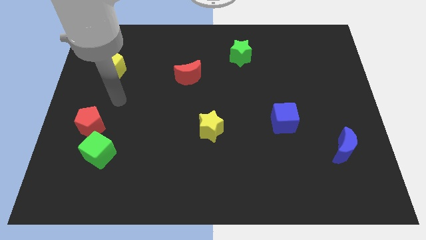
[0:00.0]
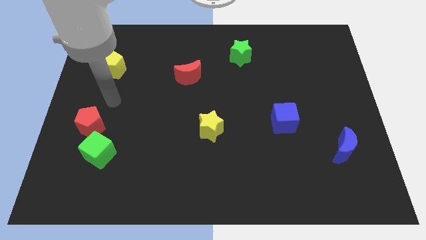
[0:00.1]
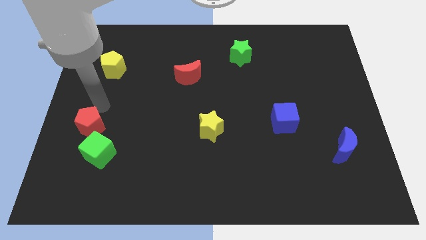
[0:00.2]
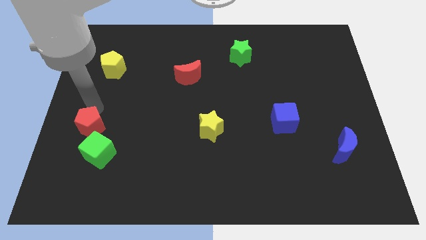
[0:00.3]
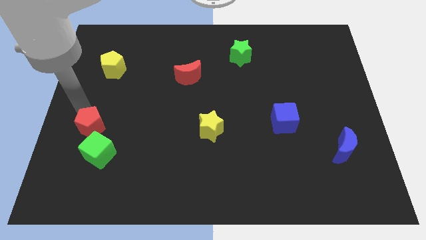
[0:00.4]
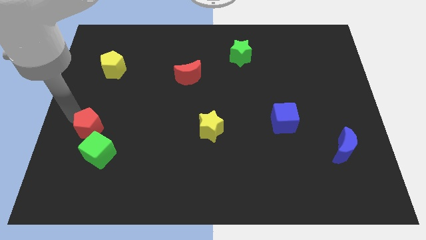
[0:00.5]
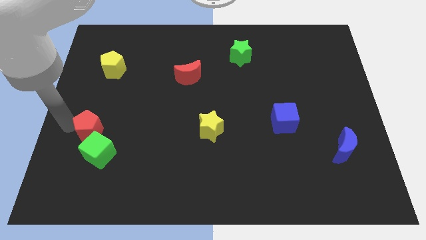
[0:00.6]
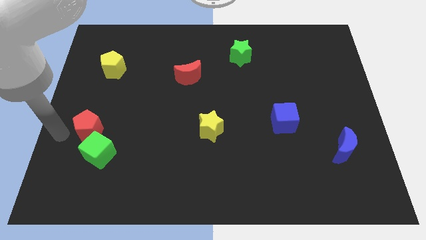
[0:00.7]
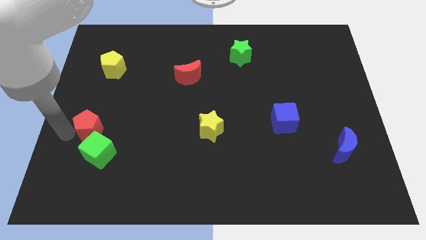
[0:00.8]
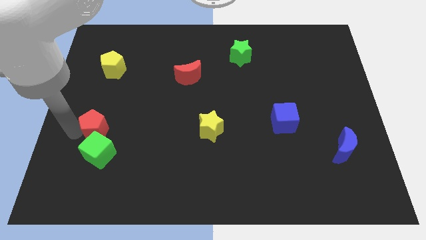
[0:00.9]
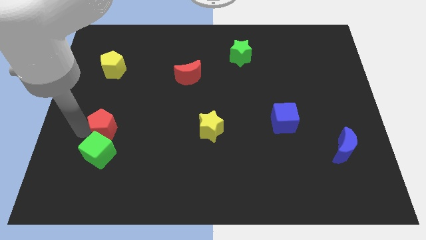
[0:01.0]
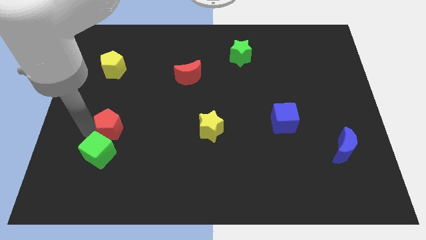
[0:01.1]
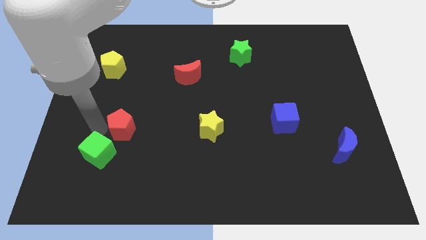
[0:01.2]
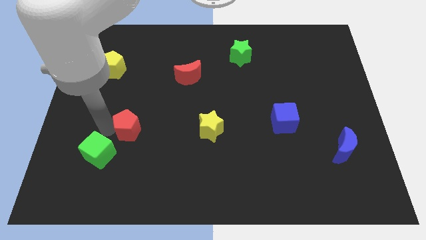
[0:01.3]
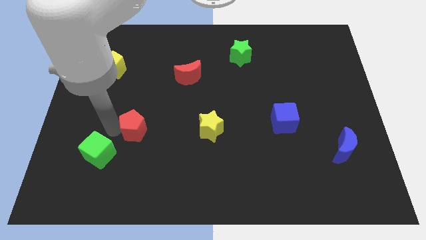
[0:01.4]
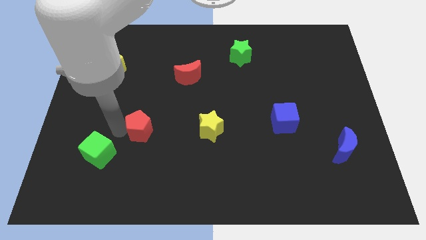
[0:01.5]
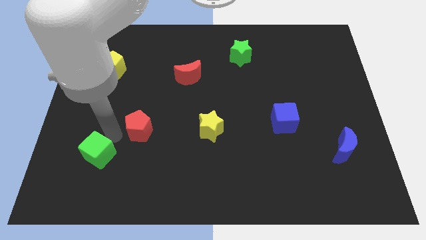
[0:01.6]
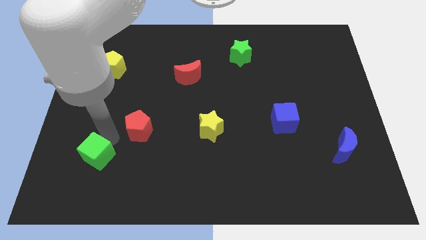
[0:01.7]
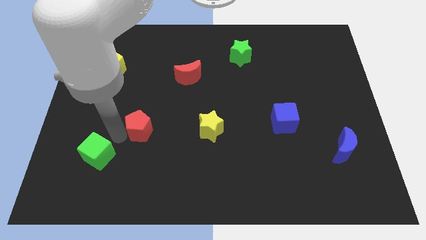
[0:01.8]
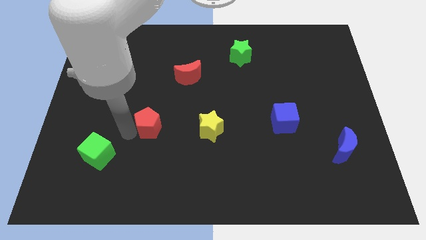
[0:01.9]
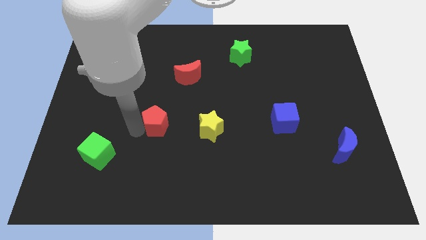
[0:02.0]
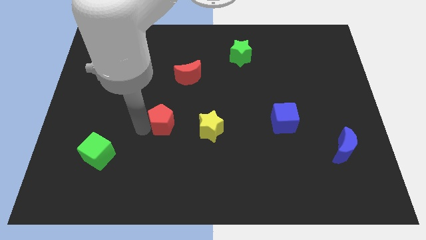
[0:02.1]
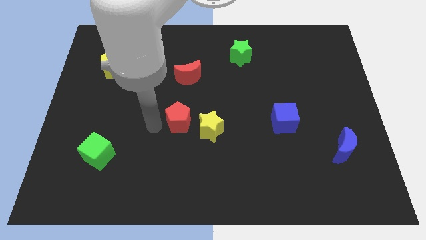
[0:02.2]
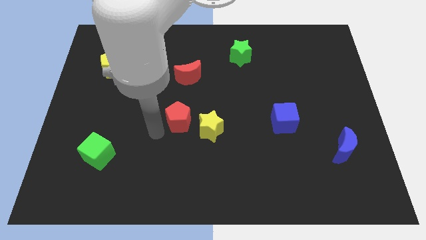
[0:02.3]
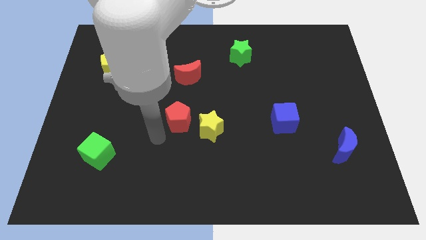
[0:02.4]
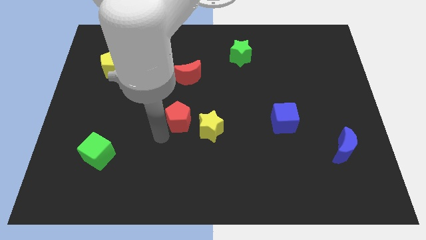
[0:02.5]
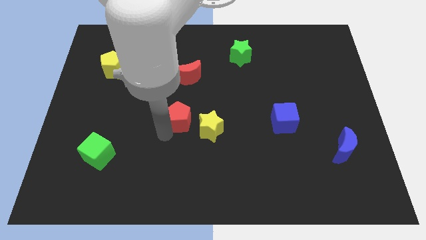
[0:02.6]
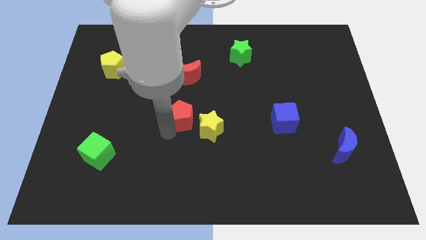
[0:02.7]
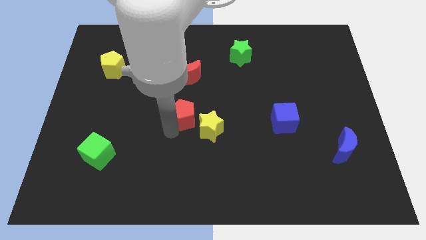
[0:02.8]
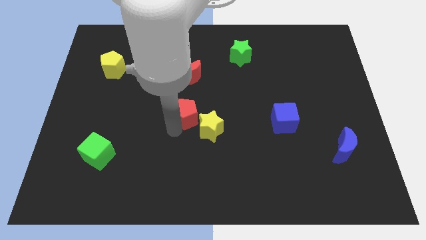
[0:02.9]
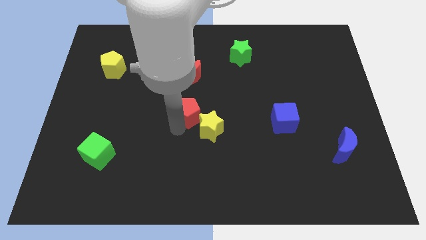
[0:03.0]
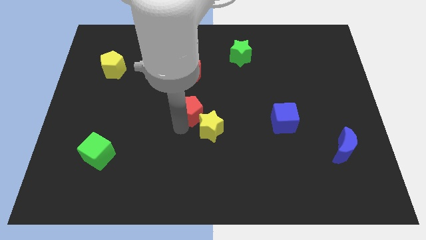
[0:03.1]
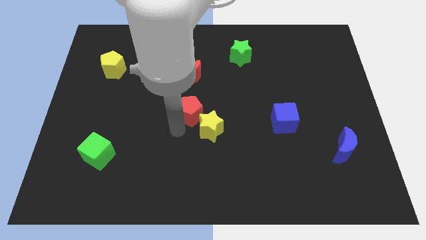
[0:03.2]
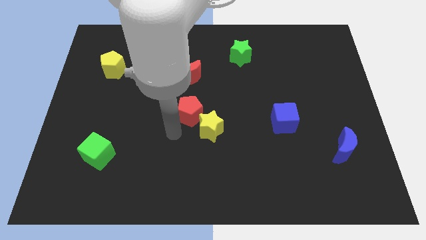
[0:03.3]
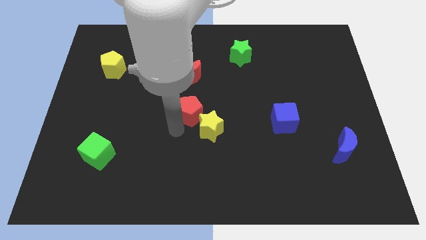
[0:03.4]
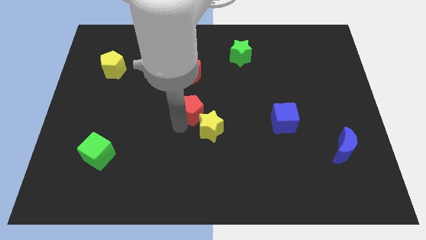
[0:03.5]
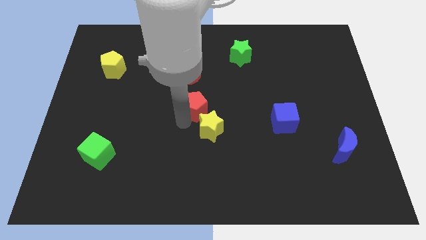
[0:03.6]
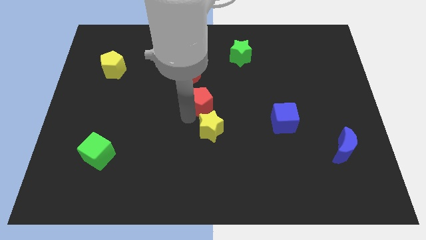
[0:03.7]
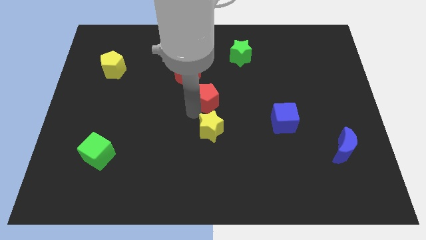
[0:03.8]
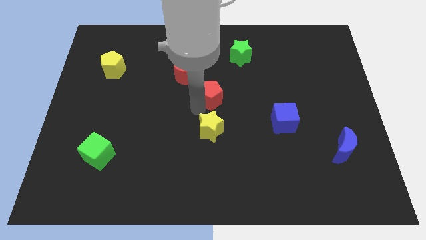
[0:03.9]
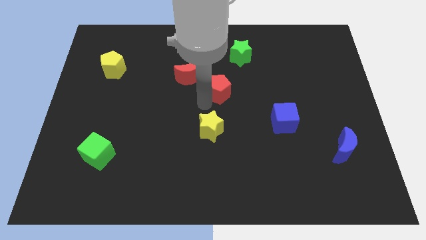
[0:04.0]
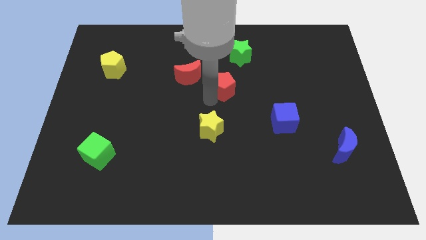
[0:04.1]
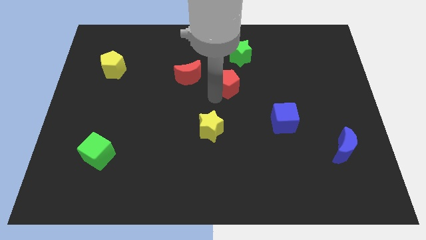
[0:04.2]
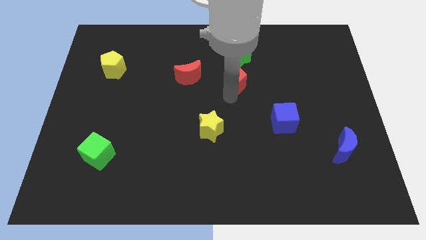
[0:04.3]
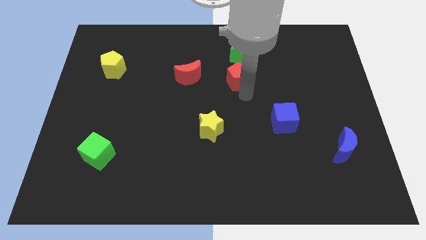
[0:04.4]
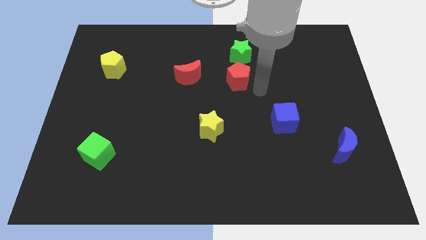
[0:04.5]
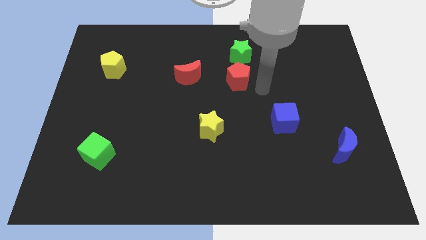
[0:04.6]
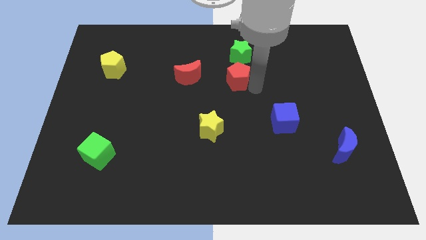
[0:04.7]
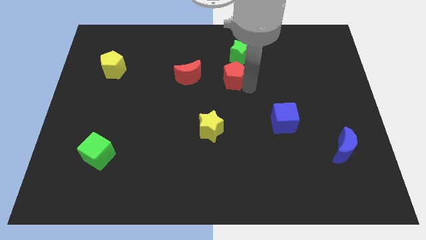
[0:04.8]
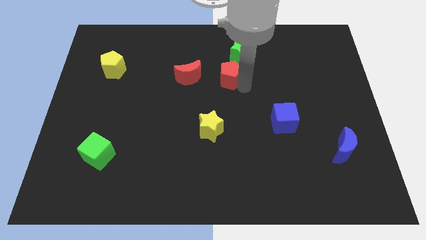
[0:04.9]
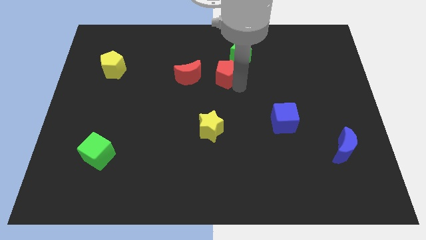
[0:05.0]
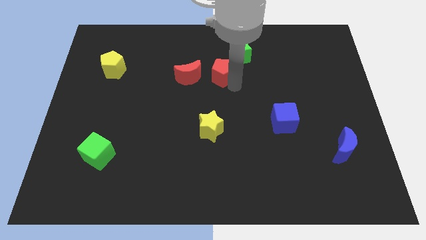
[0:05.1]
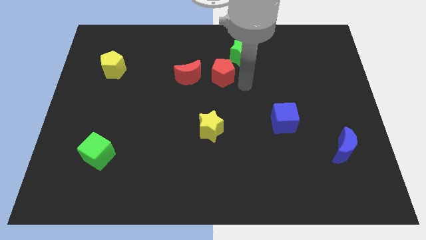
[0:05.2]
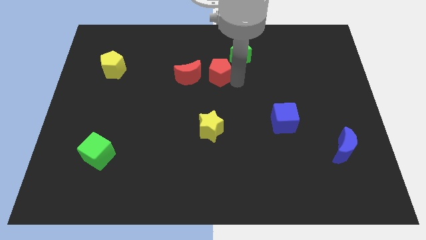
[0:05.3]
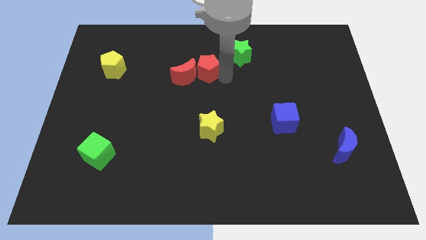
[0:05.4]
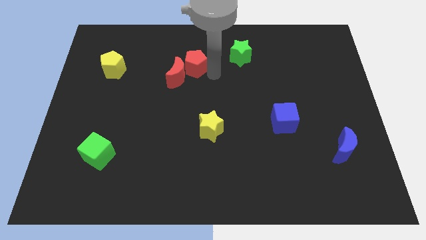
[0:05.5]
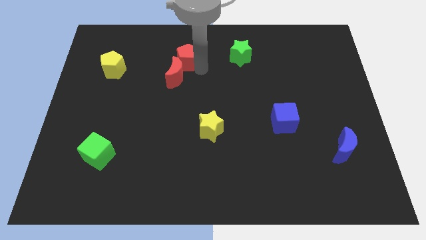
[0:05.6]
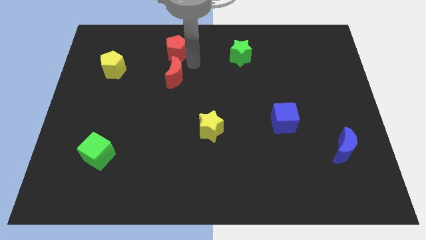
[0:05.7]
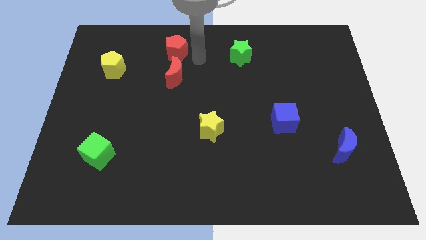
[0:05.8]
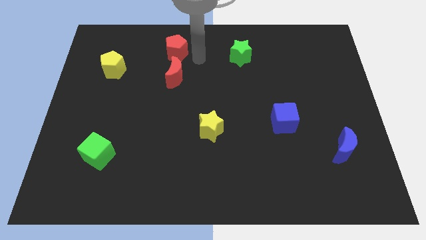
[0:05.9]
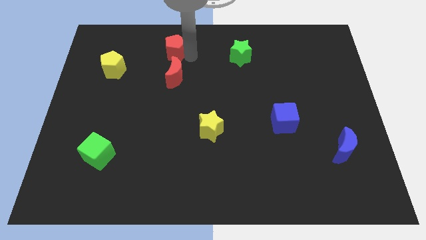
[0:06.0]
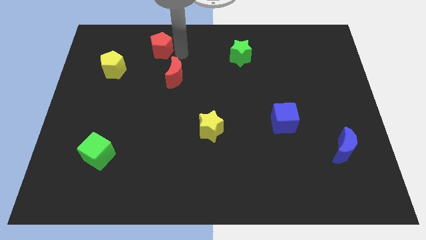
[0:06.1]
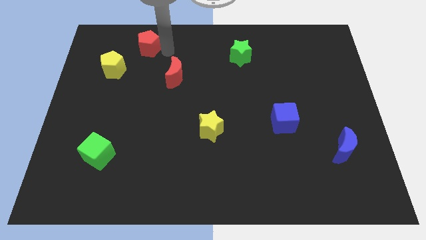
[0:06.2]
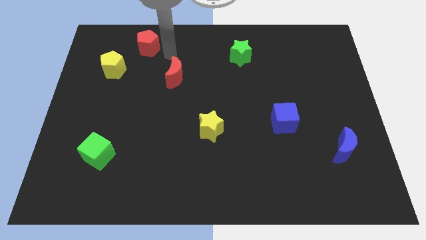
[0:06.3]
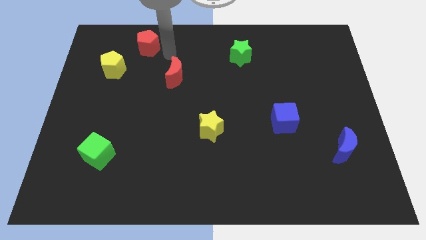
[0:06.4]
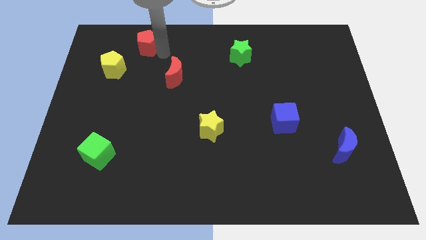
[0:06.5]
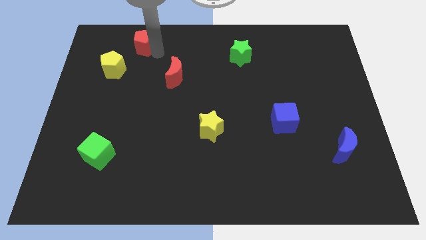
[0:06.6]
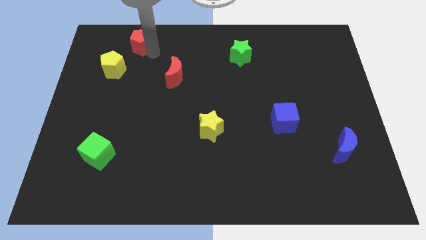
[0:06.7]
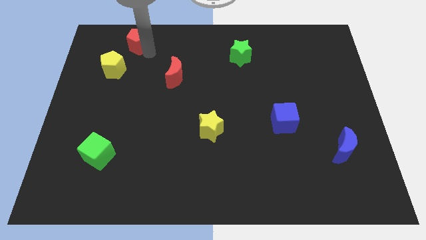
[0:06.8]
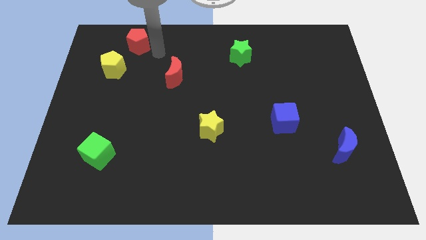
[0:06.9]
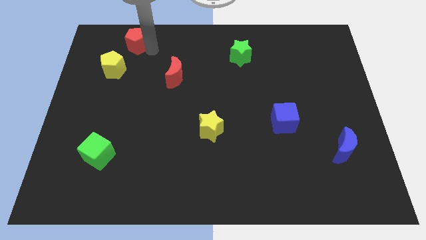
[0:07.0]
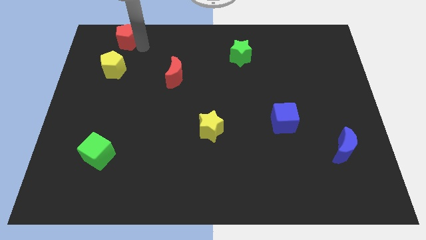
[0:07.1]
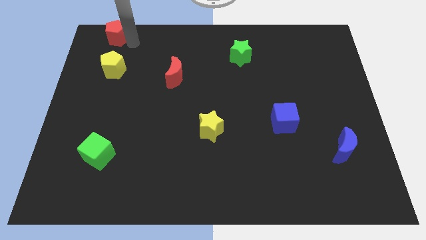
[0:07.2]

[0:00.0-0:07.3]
put the red pentagon to the upper left corner
